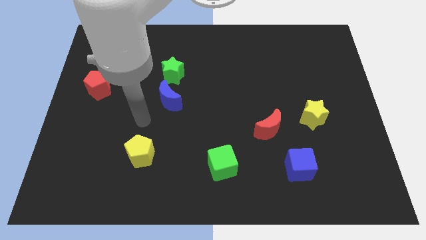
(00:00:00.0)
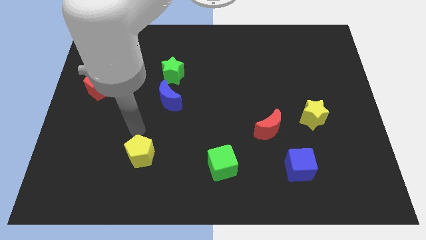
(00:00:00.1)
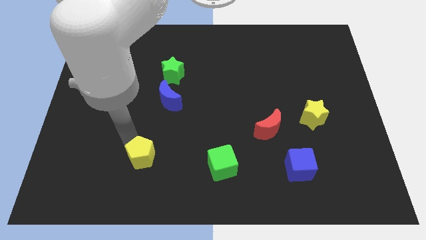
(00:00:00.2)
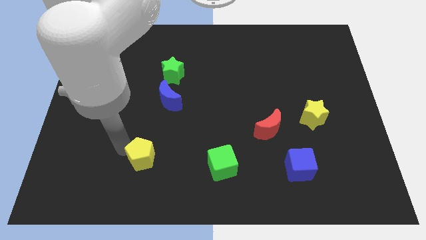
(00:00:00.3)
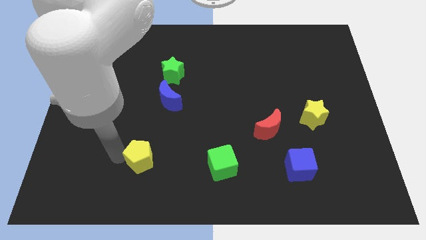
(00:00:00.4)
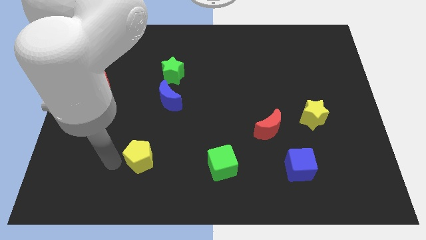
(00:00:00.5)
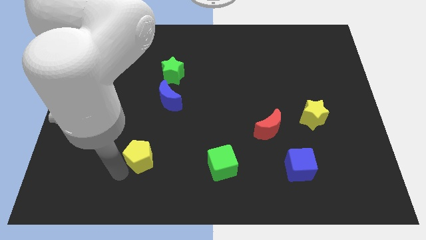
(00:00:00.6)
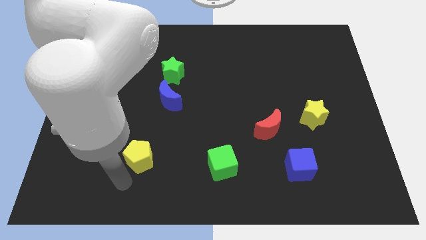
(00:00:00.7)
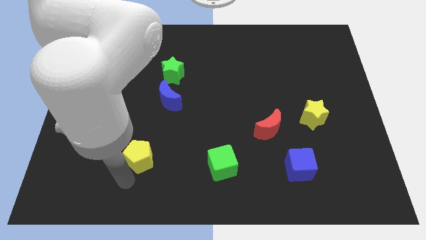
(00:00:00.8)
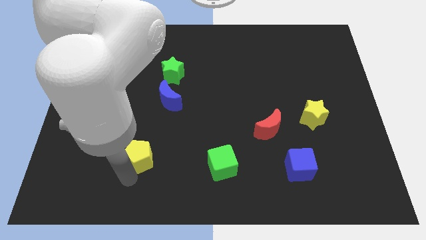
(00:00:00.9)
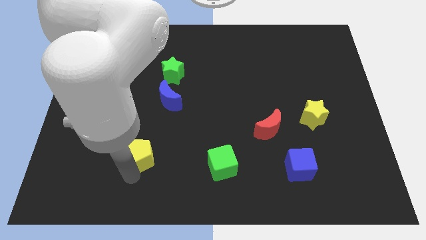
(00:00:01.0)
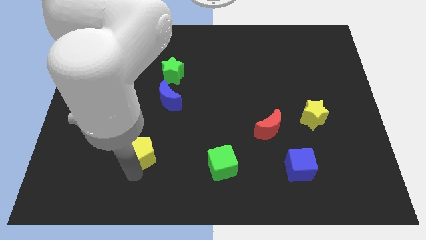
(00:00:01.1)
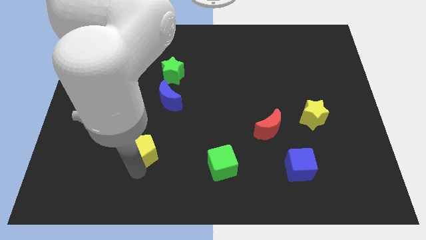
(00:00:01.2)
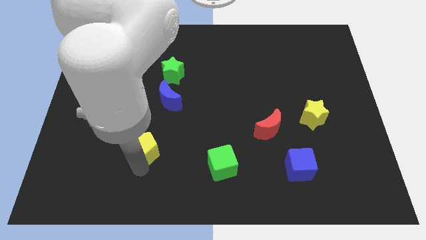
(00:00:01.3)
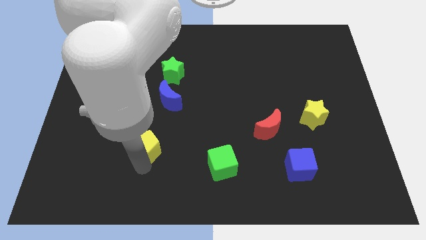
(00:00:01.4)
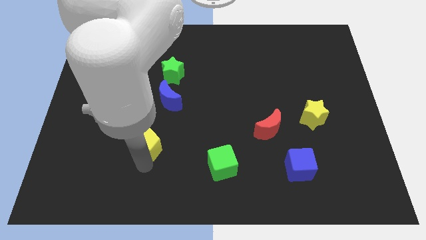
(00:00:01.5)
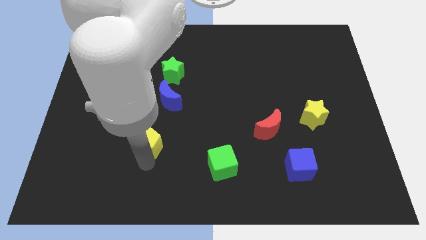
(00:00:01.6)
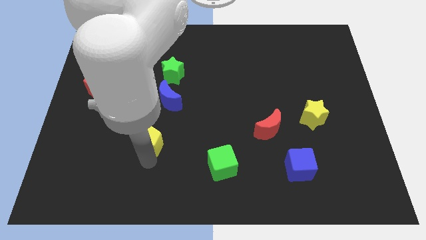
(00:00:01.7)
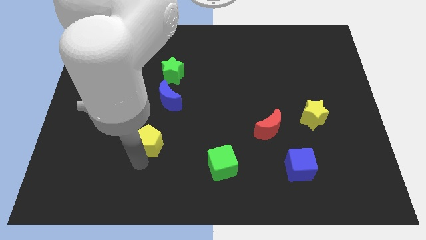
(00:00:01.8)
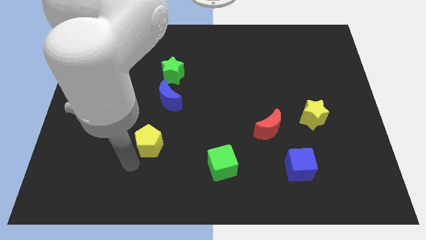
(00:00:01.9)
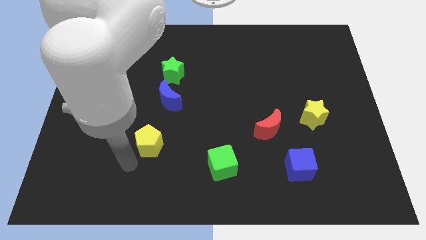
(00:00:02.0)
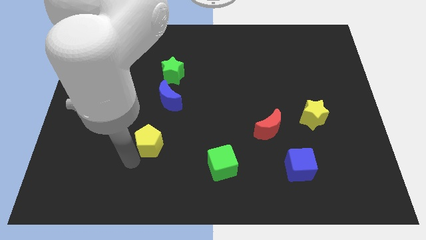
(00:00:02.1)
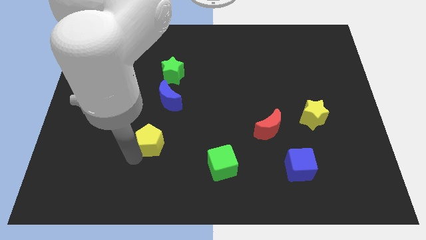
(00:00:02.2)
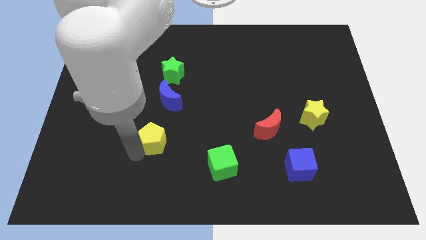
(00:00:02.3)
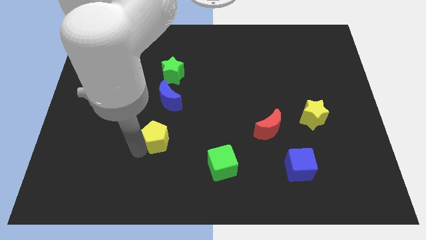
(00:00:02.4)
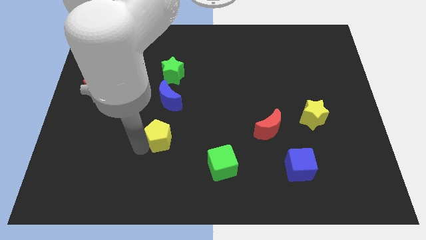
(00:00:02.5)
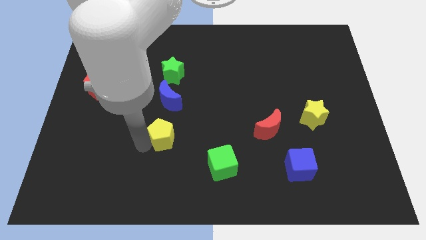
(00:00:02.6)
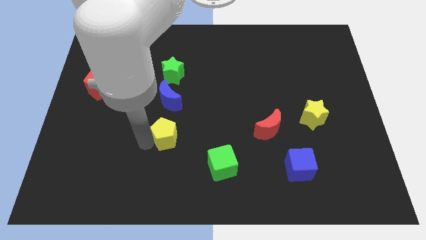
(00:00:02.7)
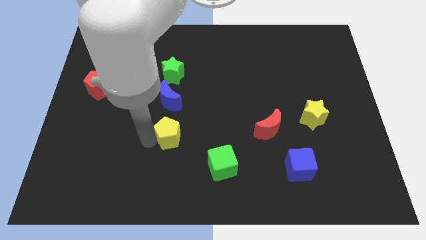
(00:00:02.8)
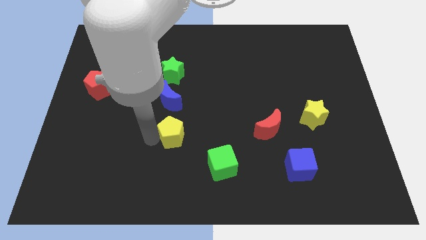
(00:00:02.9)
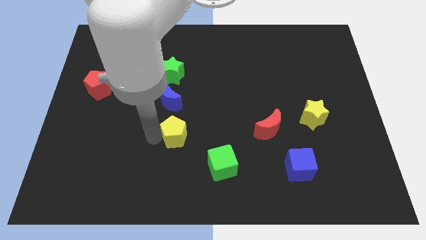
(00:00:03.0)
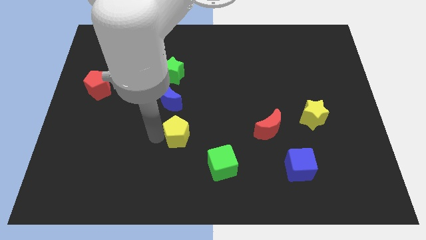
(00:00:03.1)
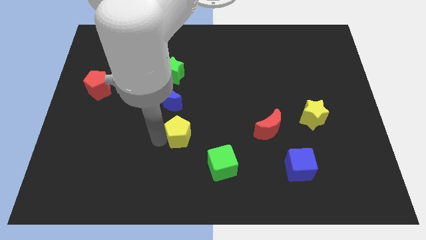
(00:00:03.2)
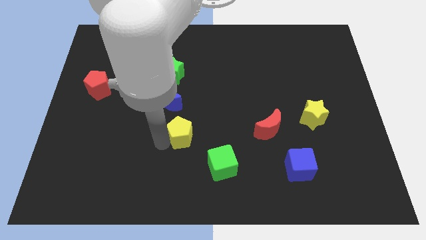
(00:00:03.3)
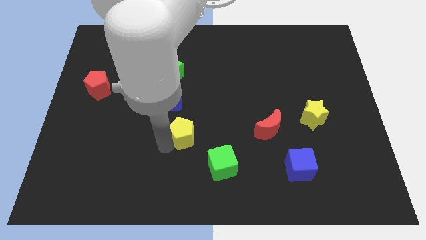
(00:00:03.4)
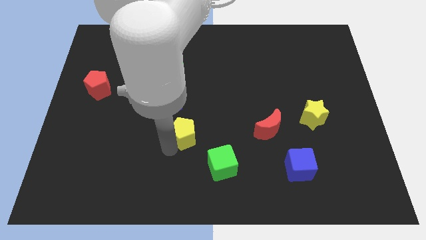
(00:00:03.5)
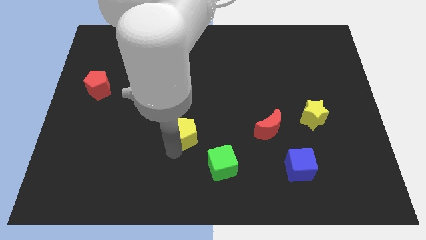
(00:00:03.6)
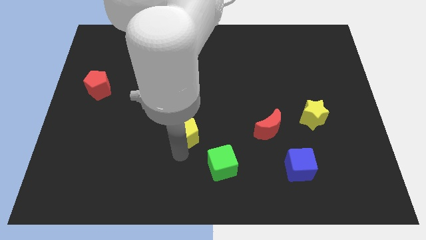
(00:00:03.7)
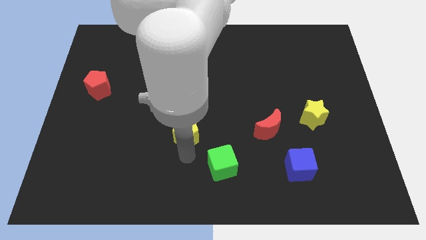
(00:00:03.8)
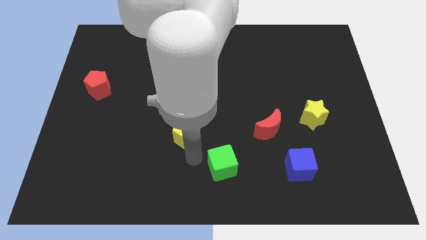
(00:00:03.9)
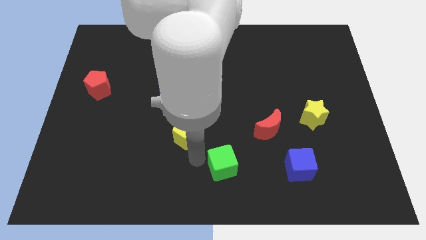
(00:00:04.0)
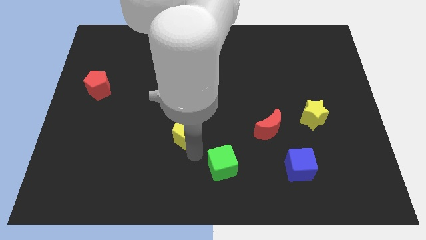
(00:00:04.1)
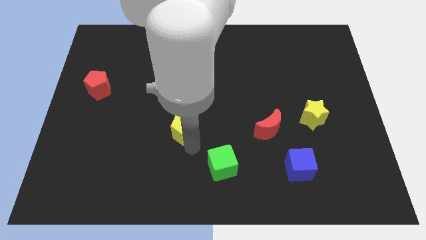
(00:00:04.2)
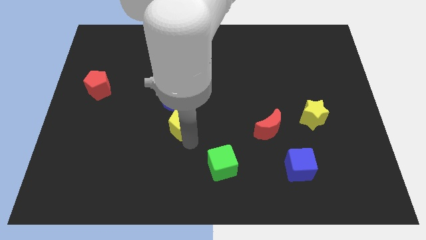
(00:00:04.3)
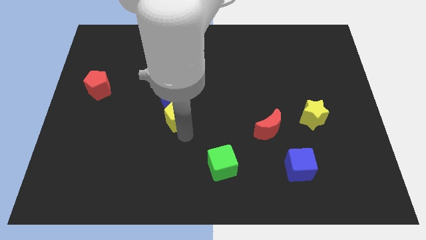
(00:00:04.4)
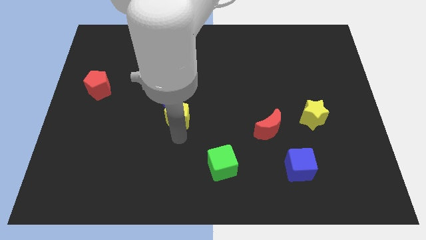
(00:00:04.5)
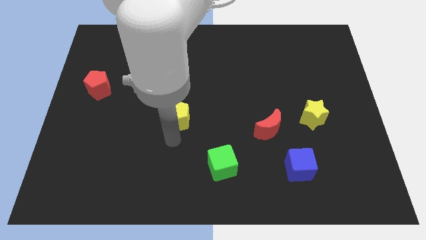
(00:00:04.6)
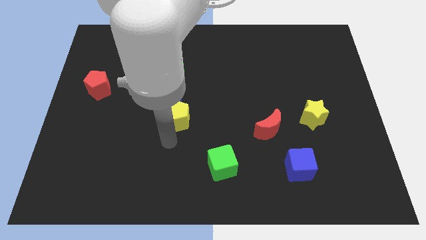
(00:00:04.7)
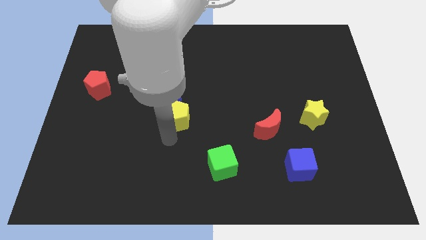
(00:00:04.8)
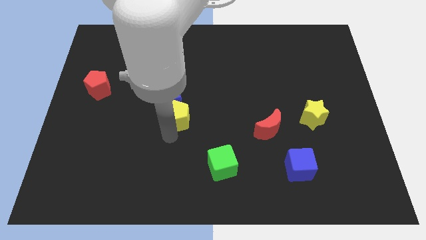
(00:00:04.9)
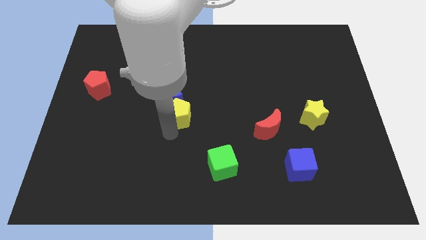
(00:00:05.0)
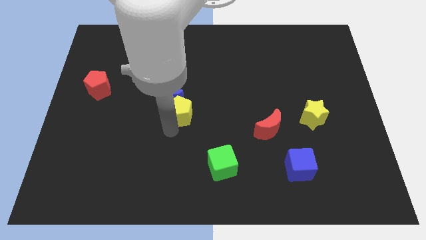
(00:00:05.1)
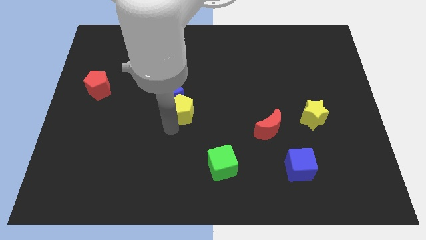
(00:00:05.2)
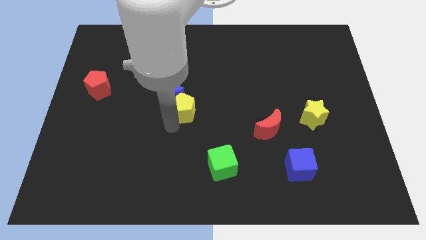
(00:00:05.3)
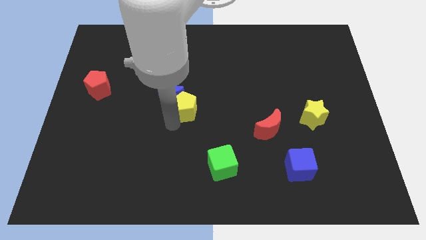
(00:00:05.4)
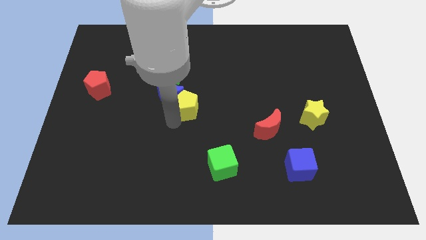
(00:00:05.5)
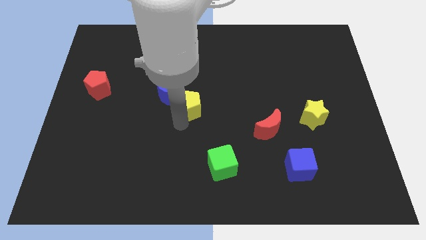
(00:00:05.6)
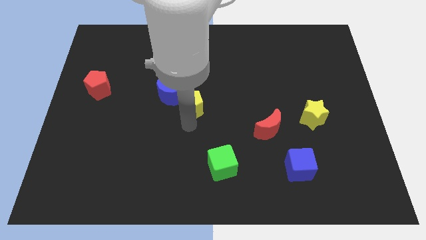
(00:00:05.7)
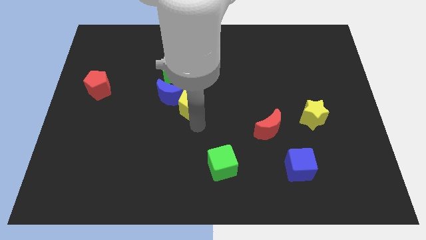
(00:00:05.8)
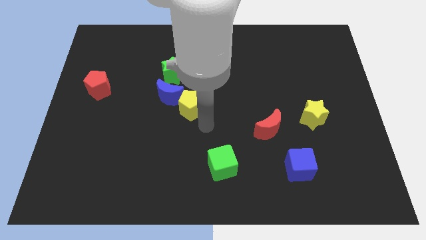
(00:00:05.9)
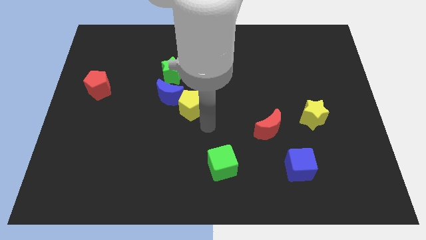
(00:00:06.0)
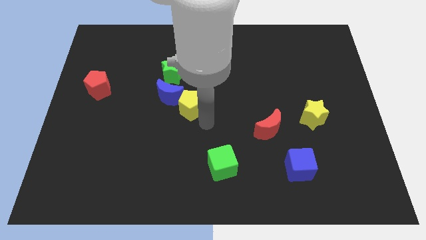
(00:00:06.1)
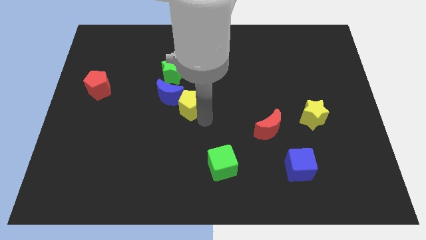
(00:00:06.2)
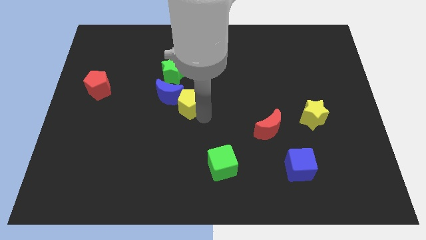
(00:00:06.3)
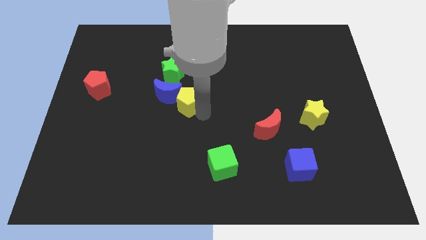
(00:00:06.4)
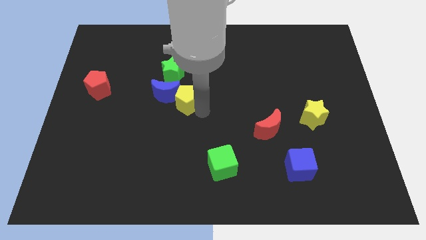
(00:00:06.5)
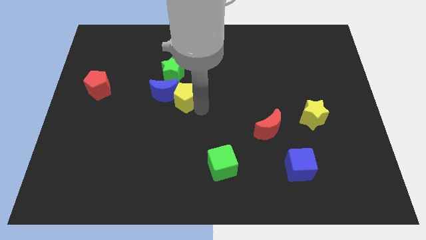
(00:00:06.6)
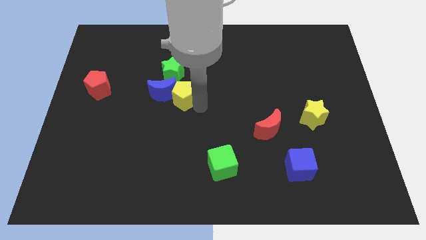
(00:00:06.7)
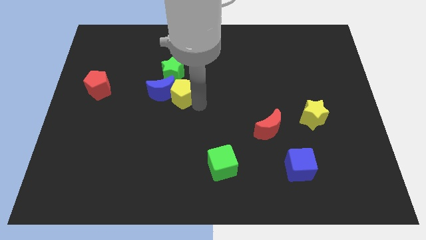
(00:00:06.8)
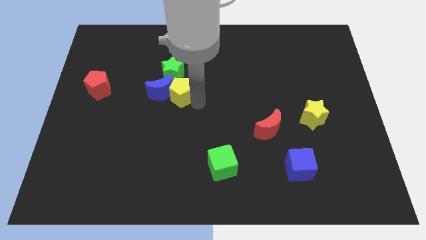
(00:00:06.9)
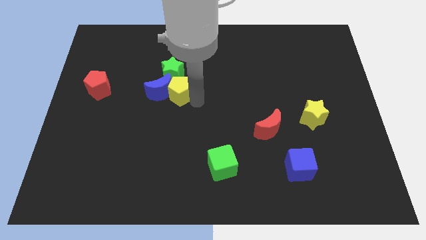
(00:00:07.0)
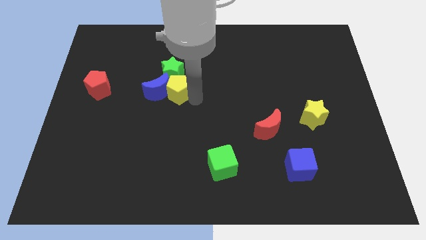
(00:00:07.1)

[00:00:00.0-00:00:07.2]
put the yellow pentagon to the green star

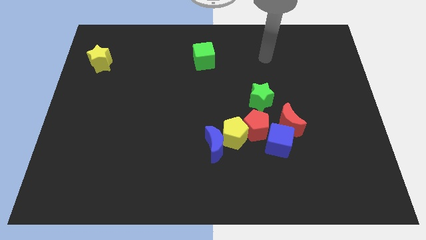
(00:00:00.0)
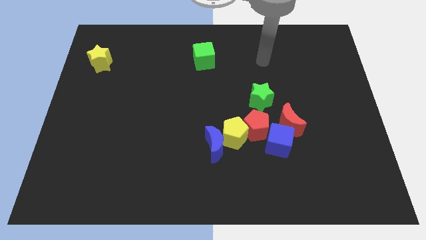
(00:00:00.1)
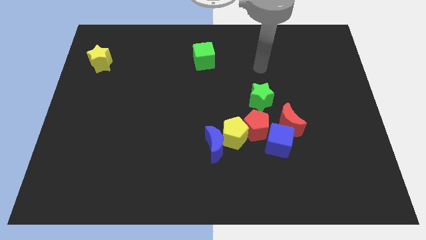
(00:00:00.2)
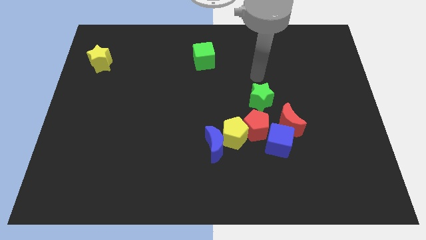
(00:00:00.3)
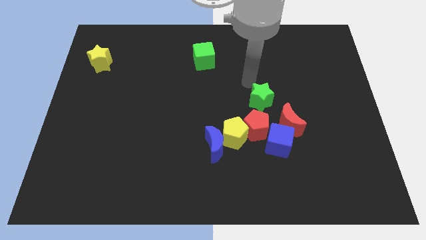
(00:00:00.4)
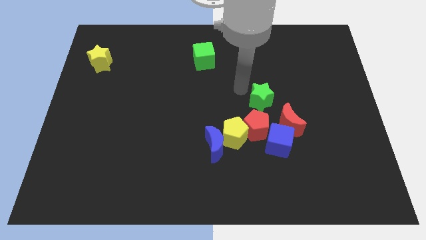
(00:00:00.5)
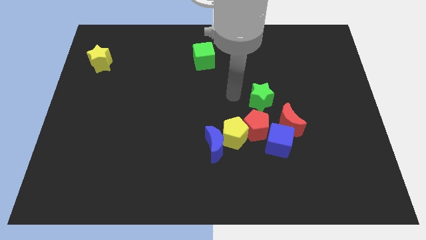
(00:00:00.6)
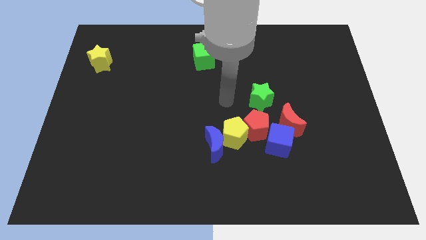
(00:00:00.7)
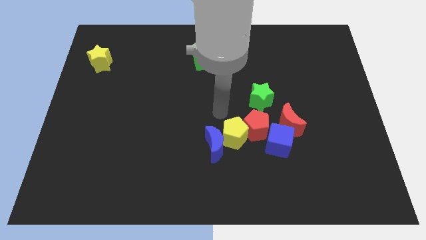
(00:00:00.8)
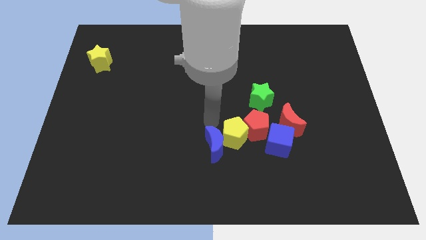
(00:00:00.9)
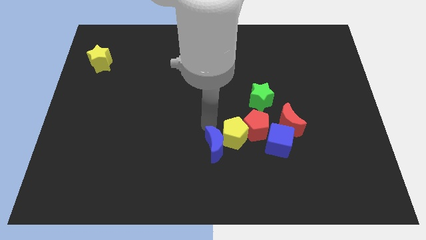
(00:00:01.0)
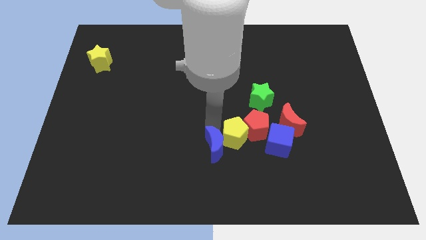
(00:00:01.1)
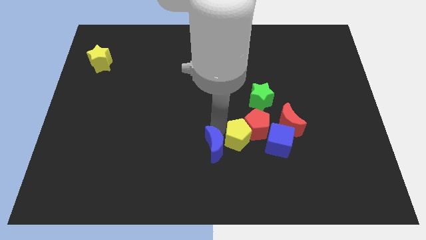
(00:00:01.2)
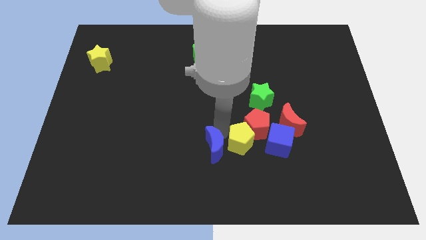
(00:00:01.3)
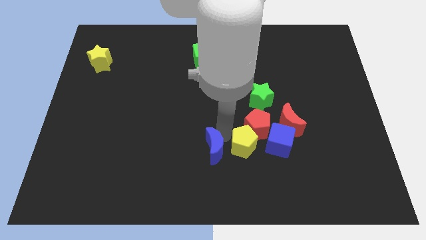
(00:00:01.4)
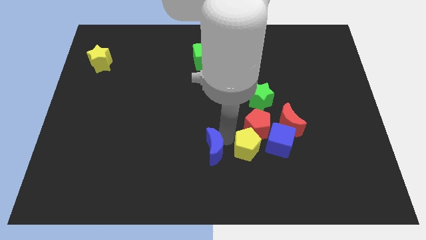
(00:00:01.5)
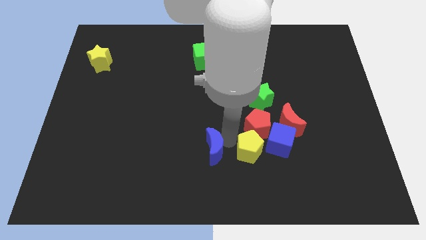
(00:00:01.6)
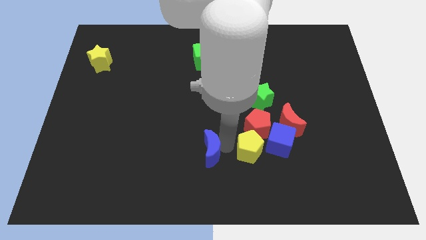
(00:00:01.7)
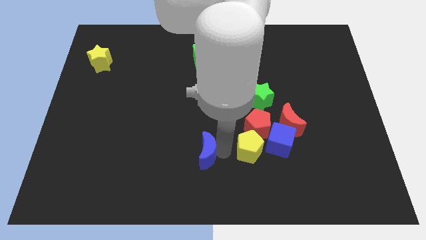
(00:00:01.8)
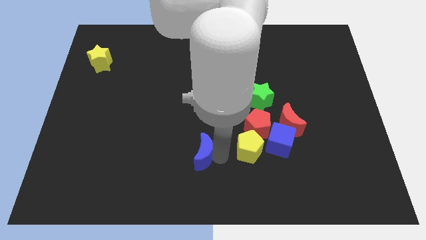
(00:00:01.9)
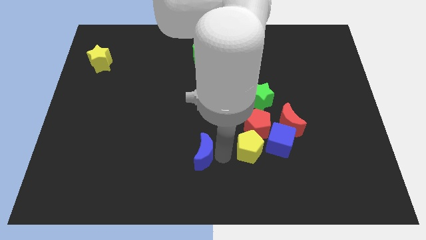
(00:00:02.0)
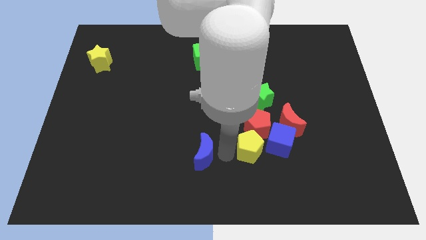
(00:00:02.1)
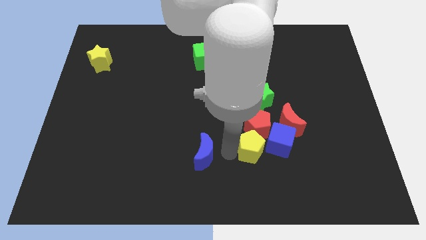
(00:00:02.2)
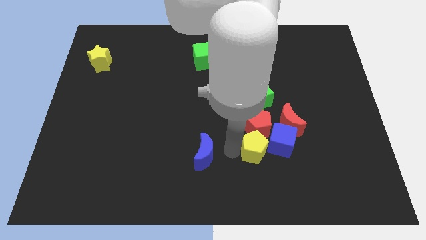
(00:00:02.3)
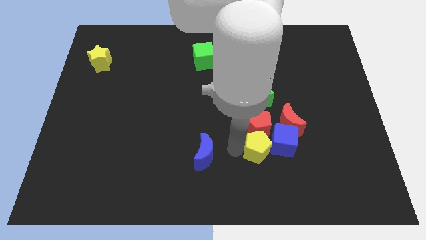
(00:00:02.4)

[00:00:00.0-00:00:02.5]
push the yellow pentagon towards the blue cube
